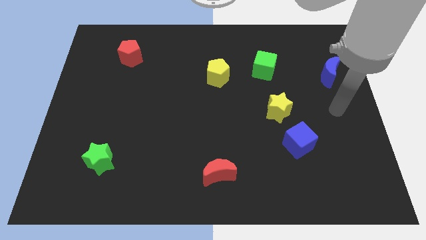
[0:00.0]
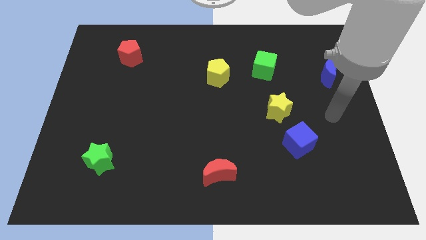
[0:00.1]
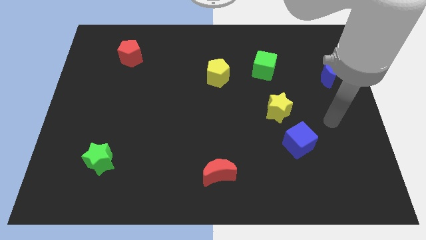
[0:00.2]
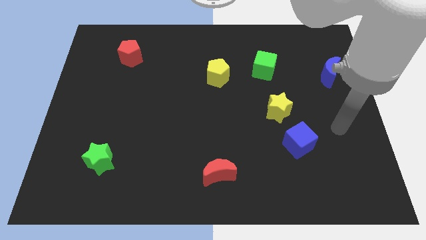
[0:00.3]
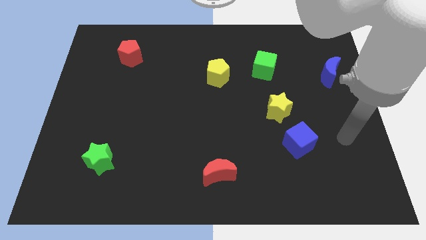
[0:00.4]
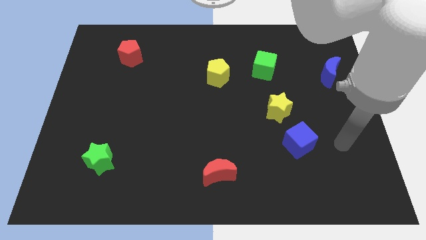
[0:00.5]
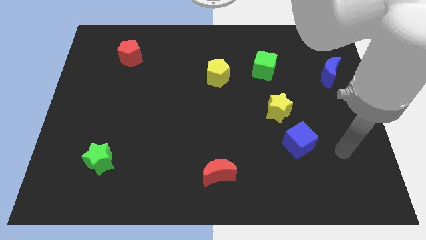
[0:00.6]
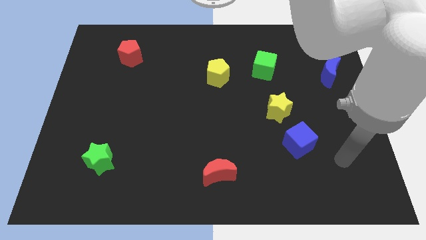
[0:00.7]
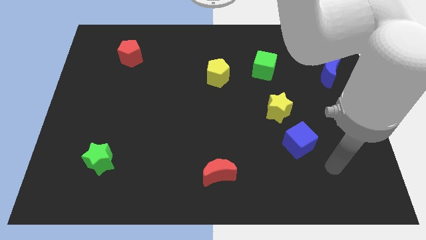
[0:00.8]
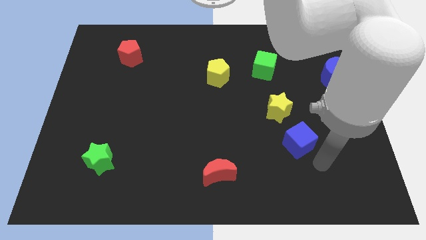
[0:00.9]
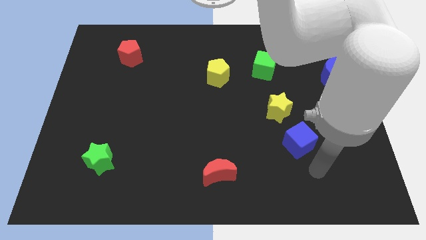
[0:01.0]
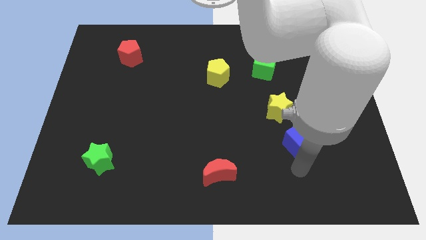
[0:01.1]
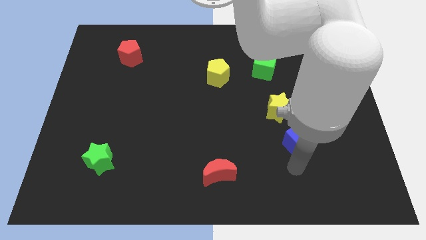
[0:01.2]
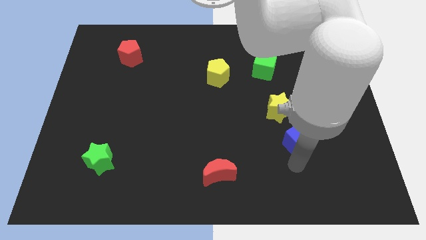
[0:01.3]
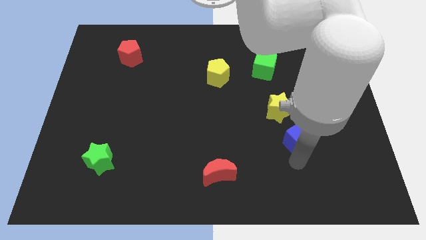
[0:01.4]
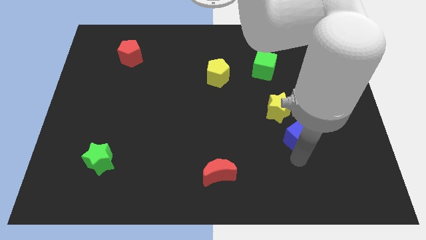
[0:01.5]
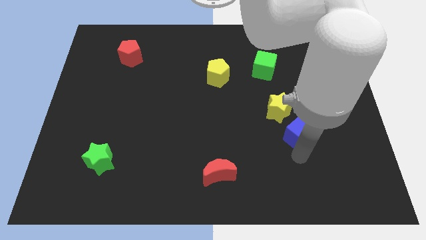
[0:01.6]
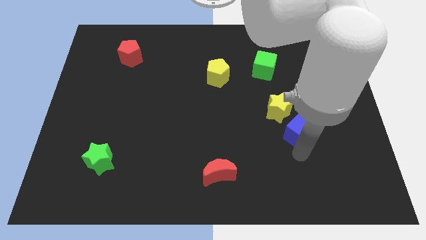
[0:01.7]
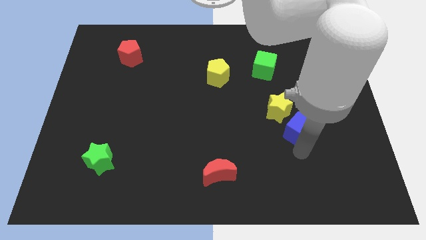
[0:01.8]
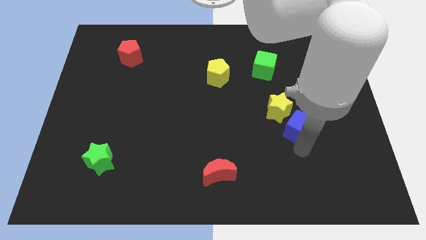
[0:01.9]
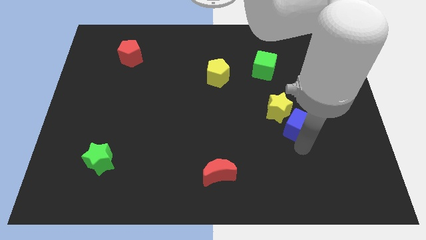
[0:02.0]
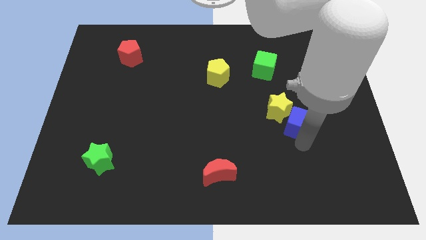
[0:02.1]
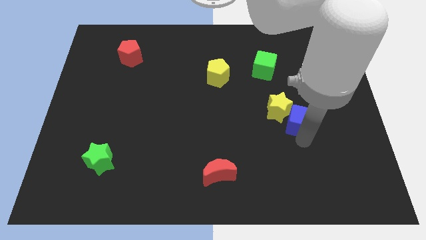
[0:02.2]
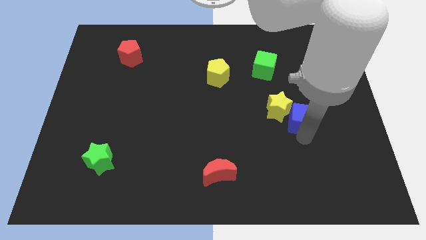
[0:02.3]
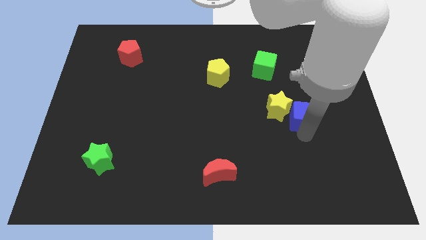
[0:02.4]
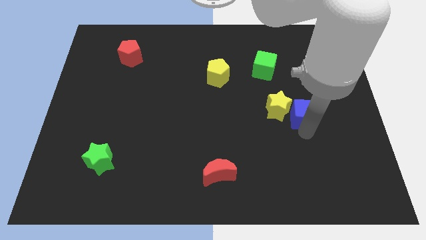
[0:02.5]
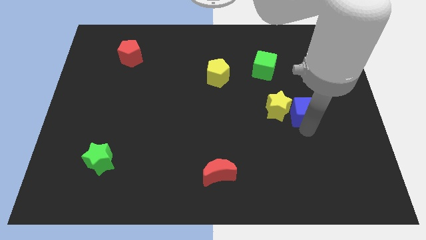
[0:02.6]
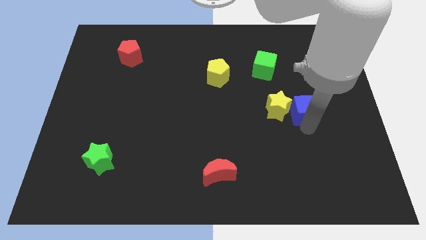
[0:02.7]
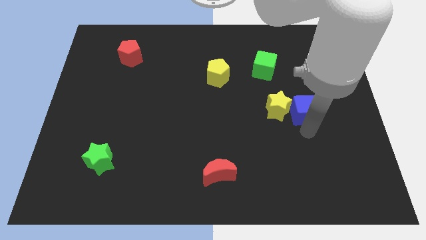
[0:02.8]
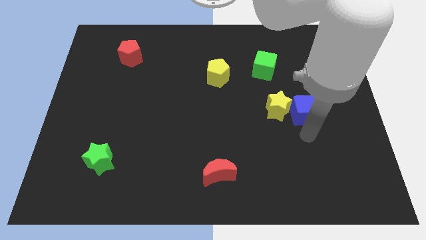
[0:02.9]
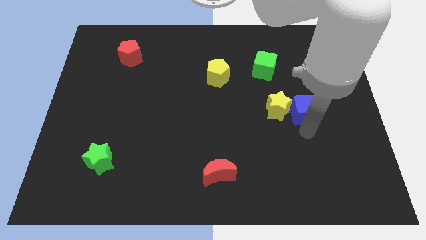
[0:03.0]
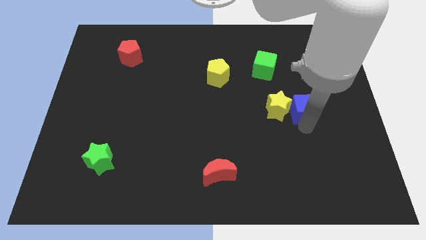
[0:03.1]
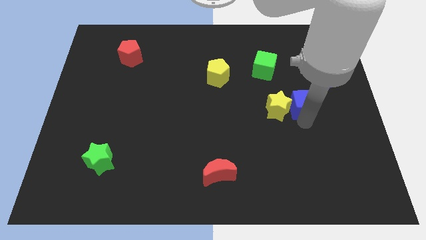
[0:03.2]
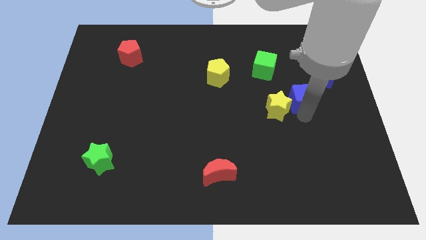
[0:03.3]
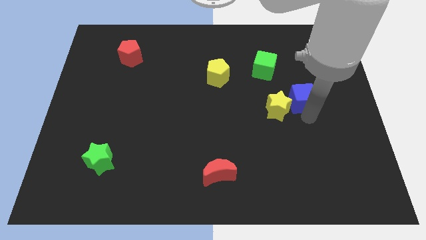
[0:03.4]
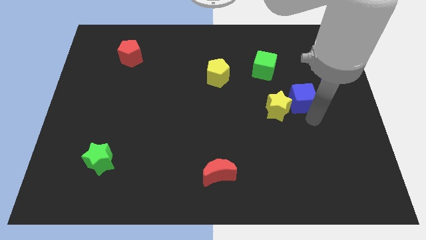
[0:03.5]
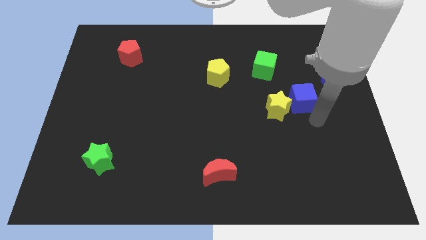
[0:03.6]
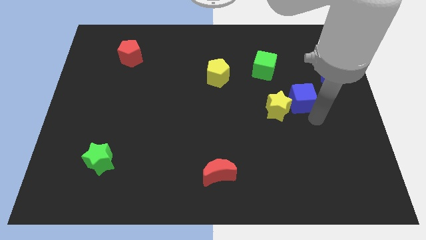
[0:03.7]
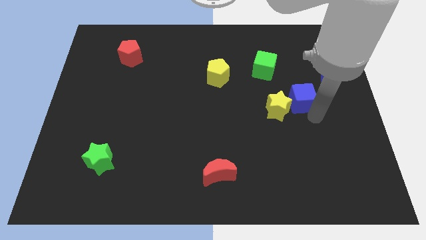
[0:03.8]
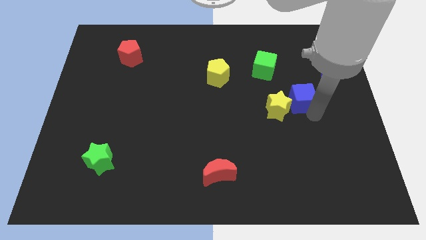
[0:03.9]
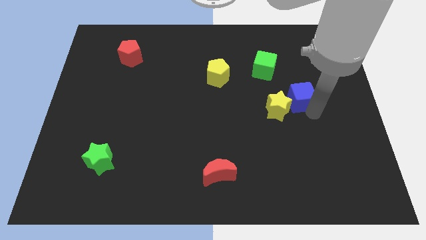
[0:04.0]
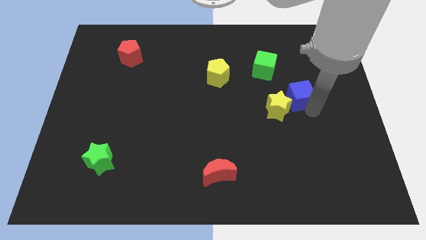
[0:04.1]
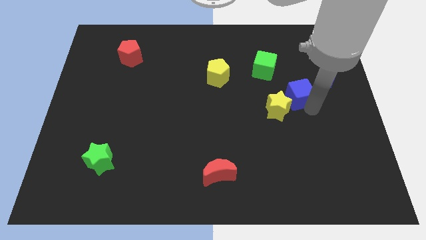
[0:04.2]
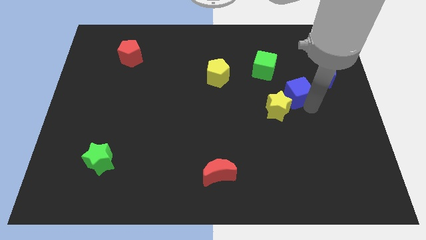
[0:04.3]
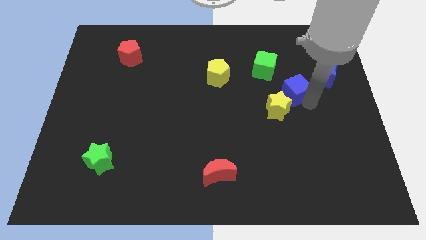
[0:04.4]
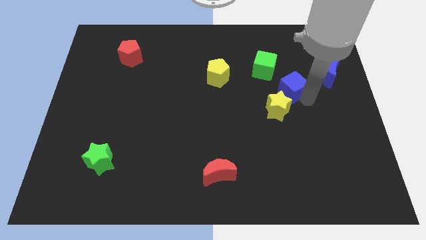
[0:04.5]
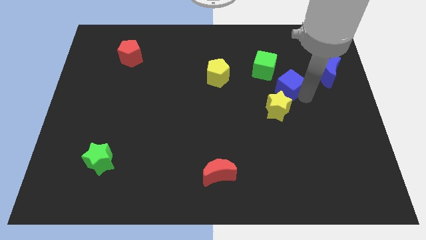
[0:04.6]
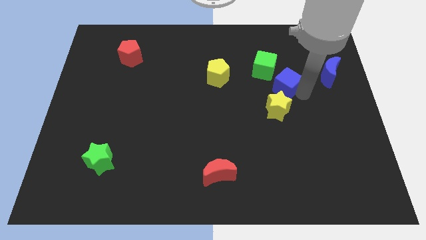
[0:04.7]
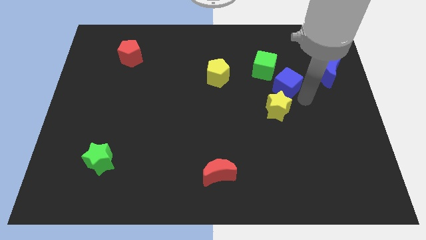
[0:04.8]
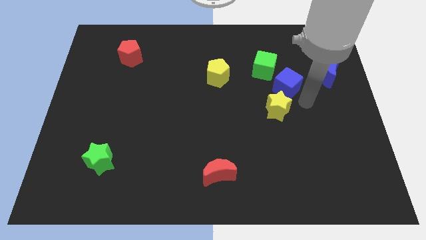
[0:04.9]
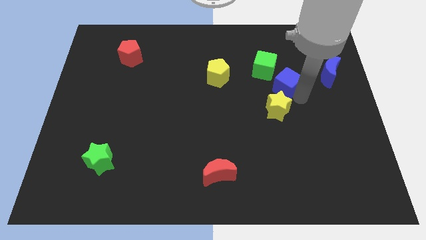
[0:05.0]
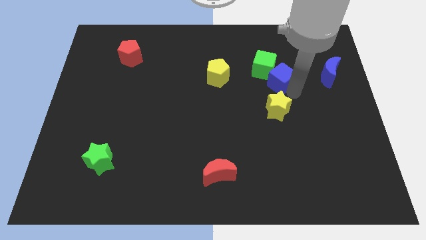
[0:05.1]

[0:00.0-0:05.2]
move the blue cube to the green cube

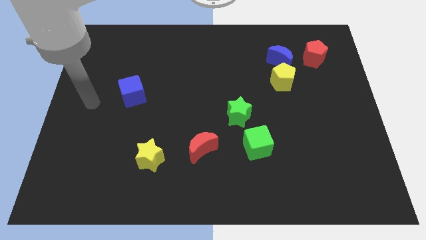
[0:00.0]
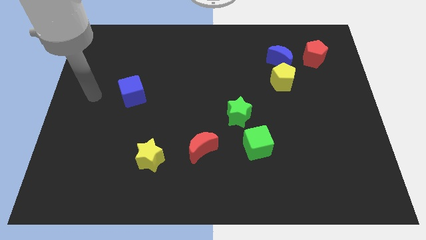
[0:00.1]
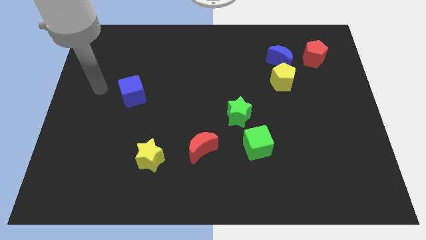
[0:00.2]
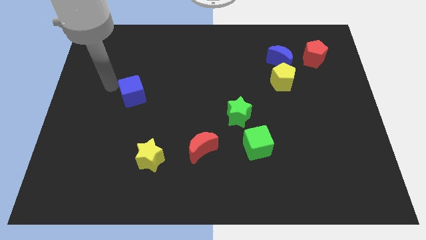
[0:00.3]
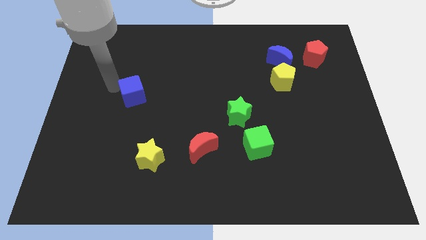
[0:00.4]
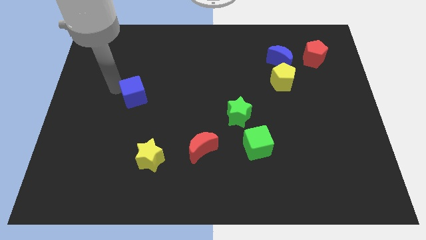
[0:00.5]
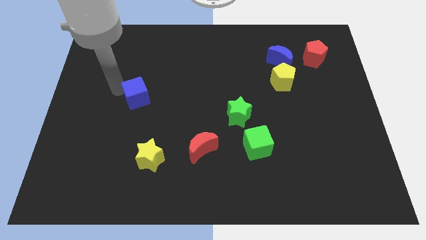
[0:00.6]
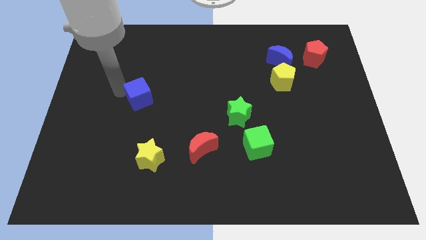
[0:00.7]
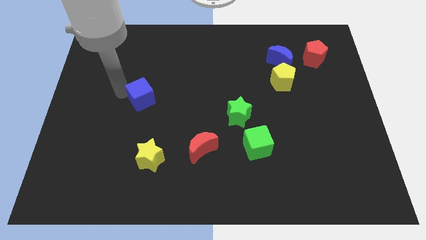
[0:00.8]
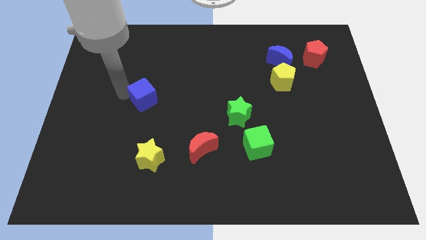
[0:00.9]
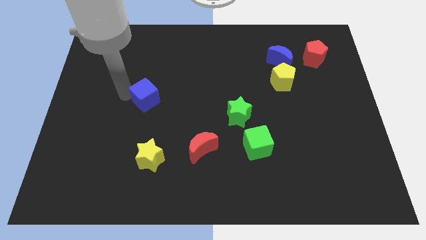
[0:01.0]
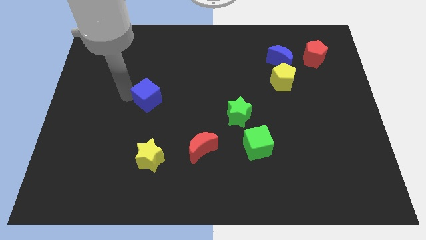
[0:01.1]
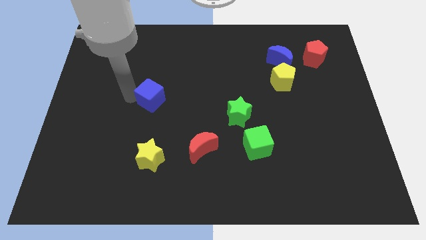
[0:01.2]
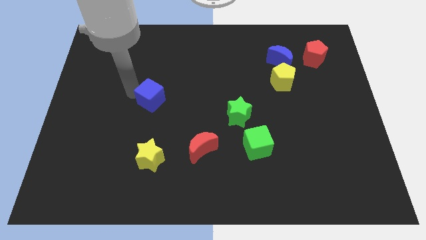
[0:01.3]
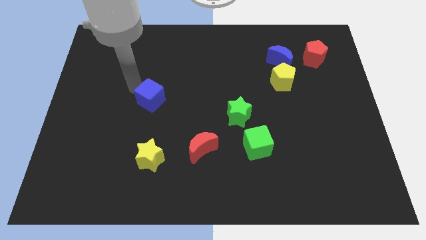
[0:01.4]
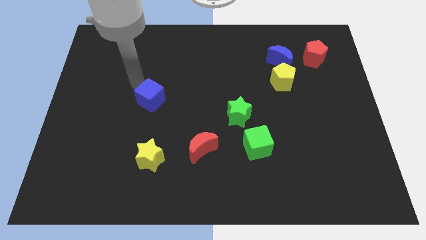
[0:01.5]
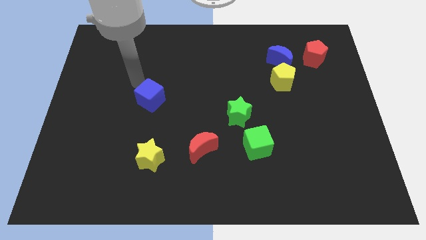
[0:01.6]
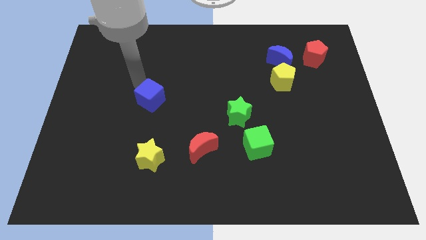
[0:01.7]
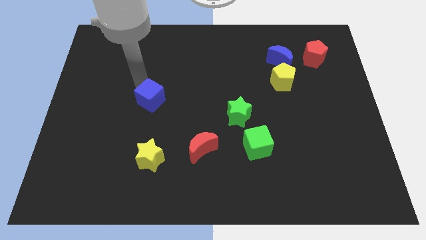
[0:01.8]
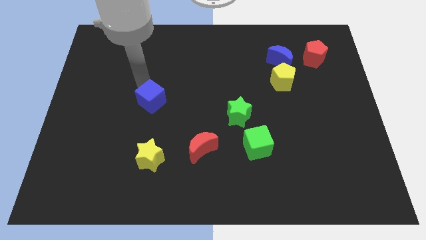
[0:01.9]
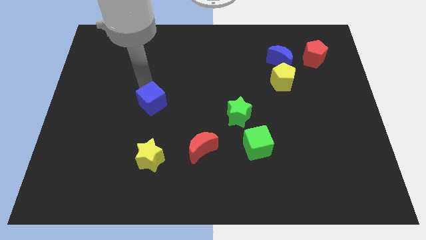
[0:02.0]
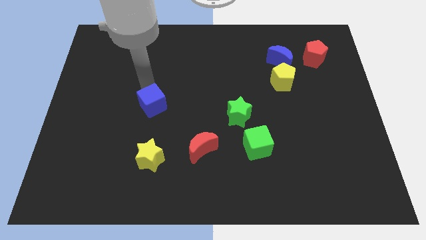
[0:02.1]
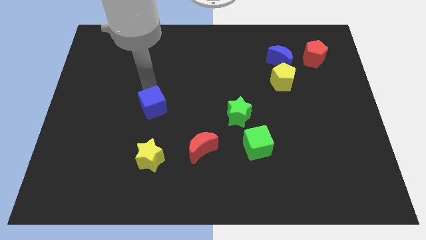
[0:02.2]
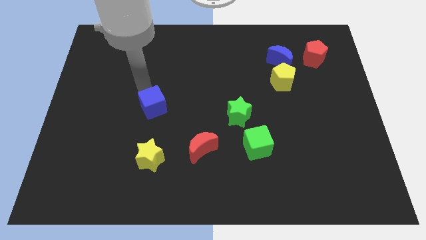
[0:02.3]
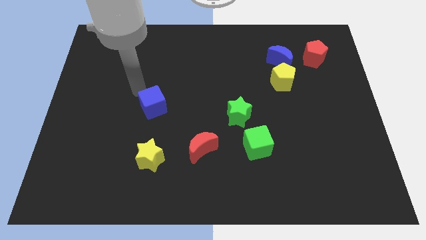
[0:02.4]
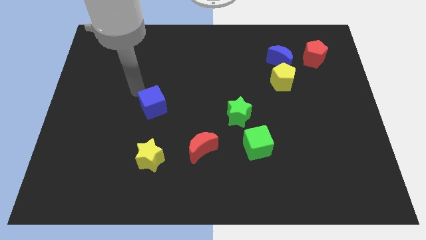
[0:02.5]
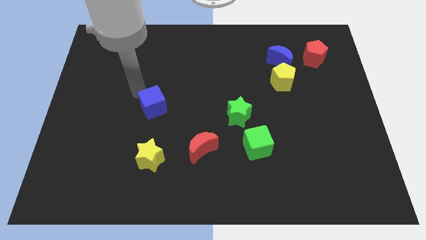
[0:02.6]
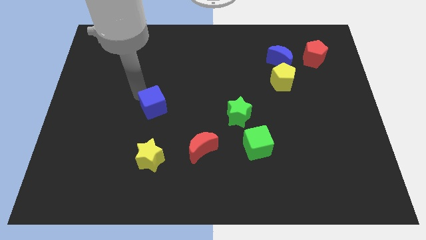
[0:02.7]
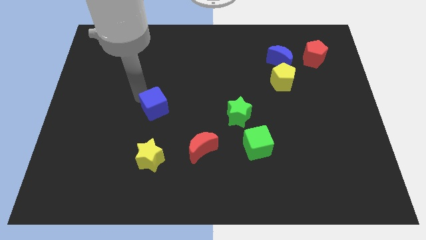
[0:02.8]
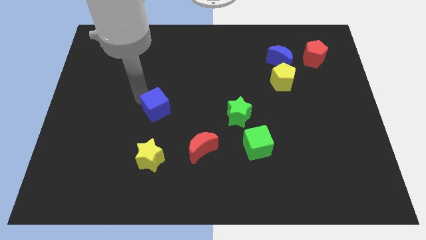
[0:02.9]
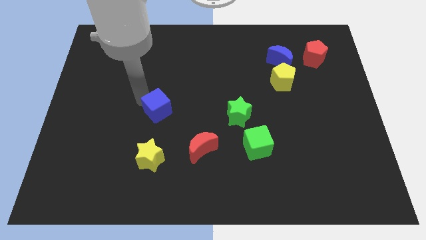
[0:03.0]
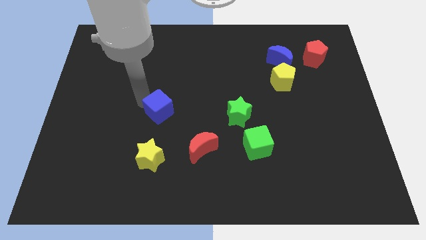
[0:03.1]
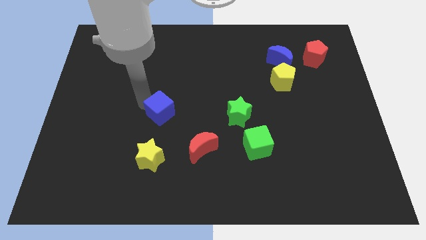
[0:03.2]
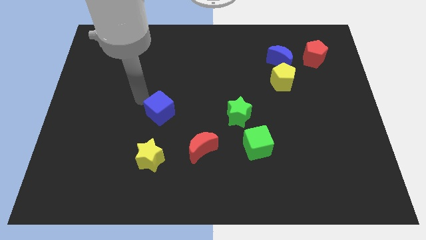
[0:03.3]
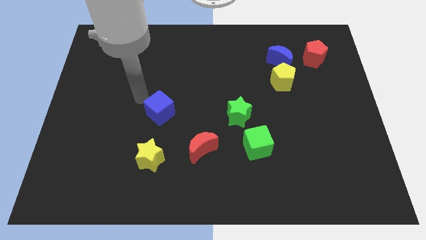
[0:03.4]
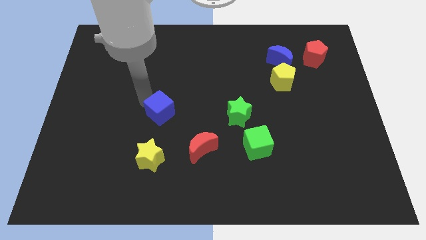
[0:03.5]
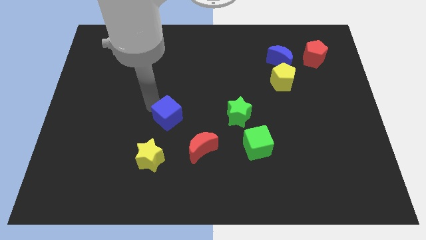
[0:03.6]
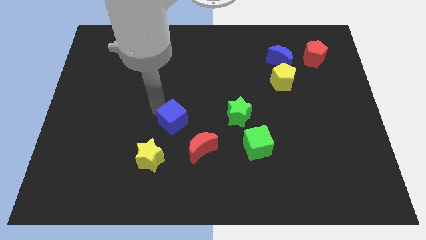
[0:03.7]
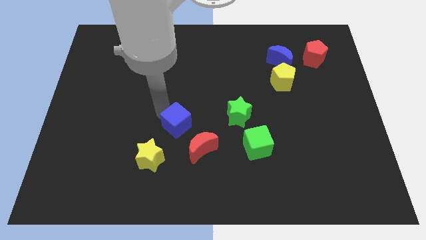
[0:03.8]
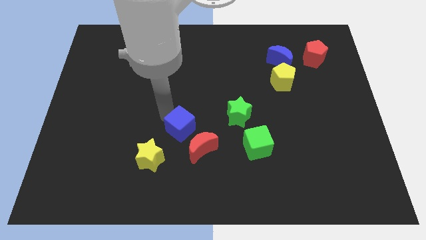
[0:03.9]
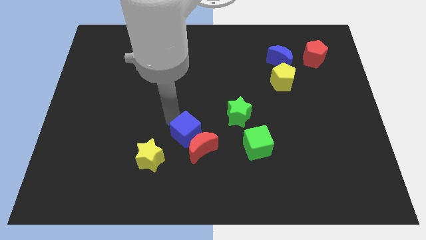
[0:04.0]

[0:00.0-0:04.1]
slide the blue cube towards the red moon
